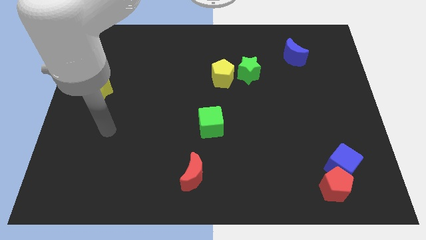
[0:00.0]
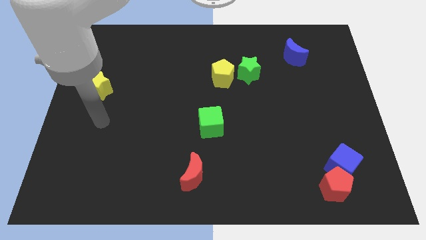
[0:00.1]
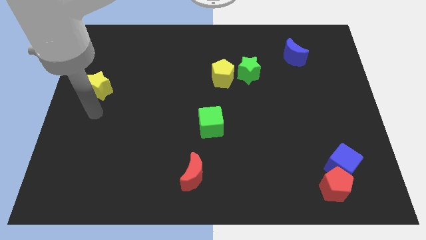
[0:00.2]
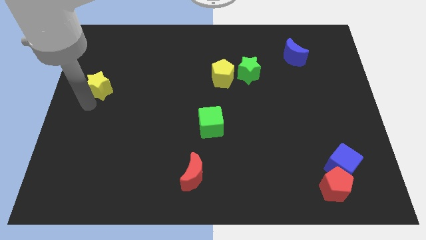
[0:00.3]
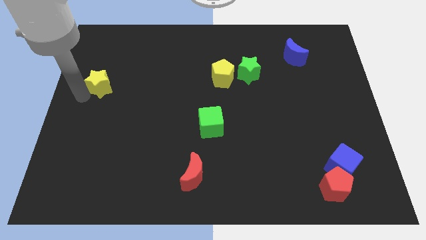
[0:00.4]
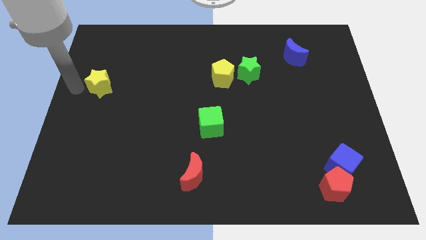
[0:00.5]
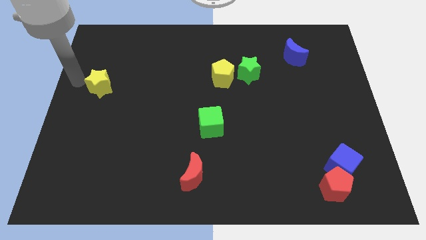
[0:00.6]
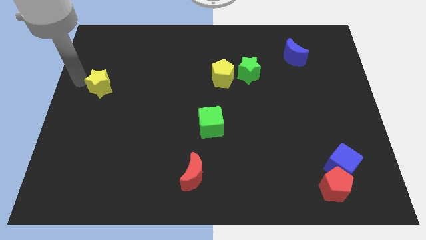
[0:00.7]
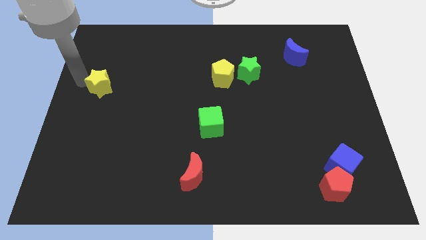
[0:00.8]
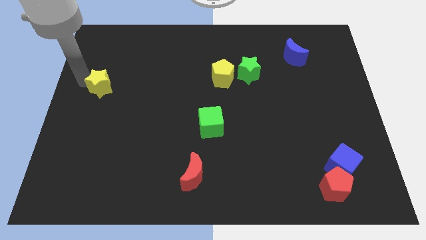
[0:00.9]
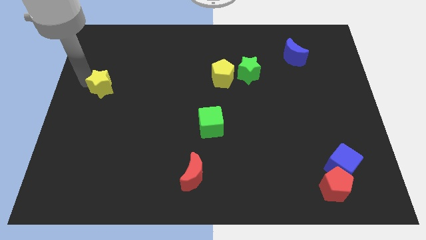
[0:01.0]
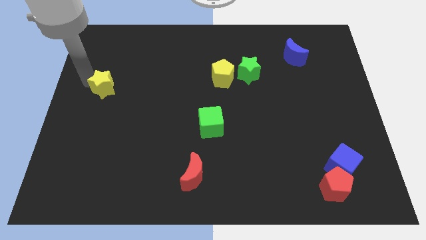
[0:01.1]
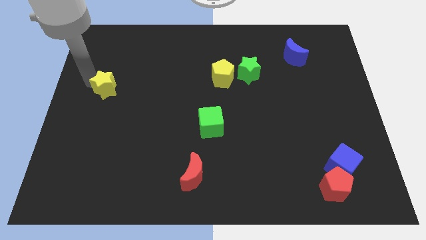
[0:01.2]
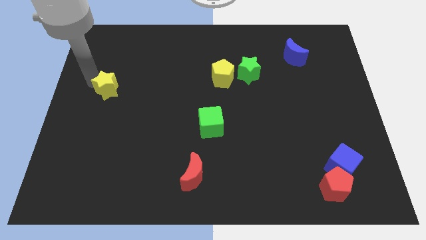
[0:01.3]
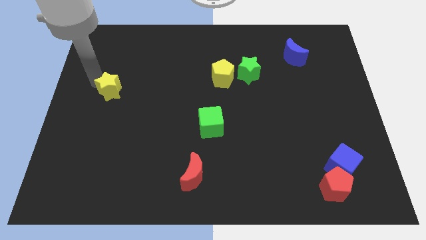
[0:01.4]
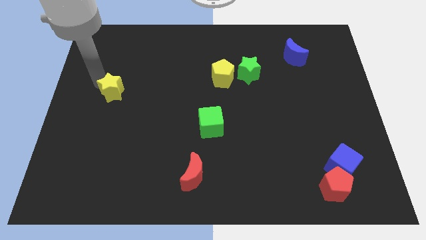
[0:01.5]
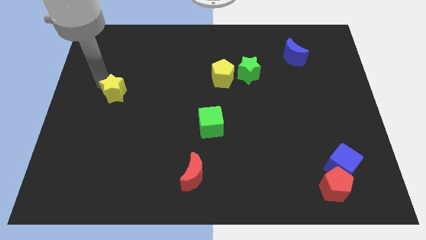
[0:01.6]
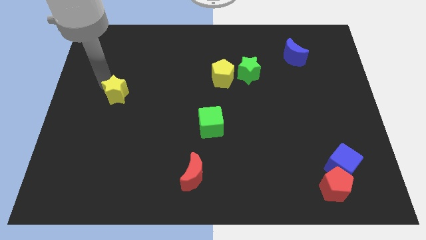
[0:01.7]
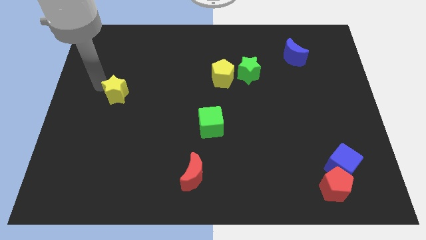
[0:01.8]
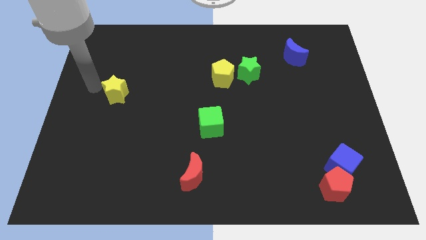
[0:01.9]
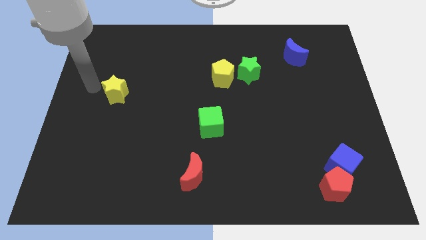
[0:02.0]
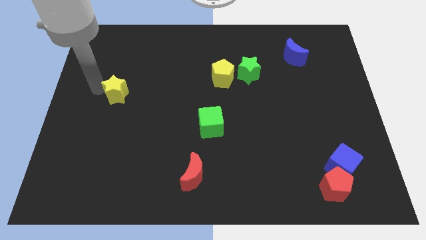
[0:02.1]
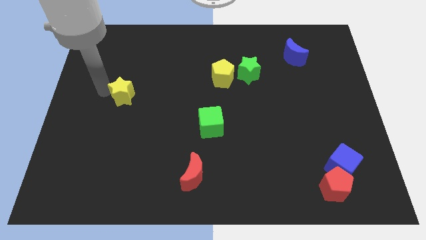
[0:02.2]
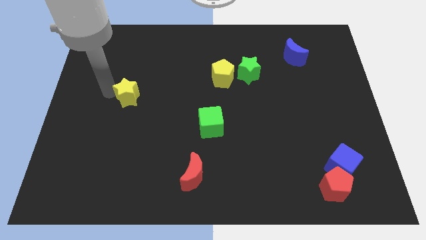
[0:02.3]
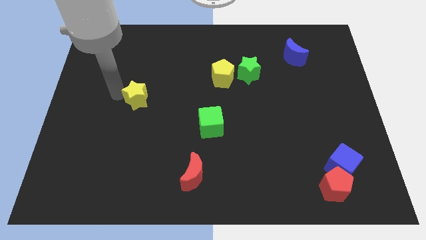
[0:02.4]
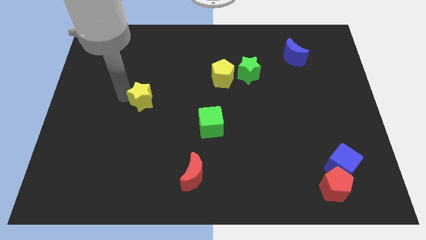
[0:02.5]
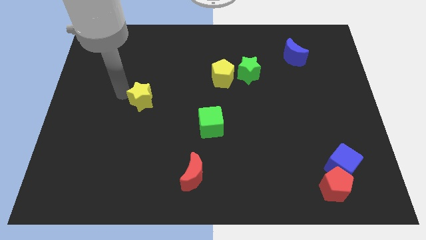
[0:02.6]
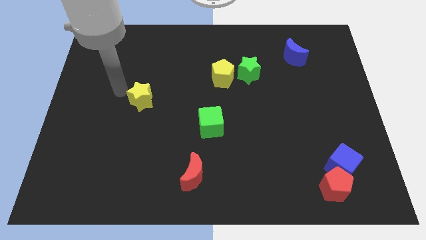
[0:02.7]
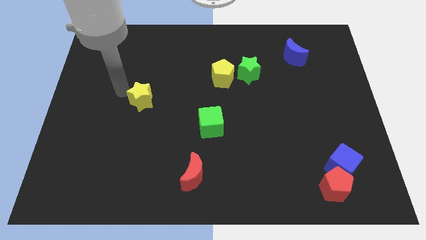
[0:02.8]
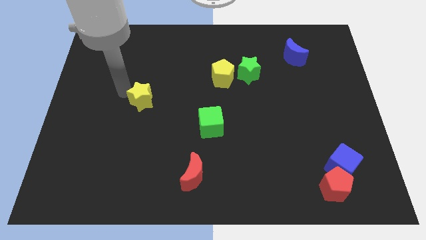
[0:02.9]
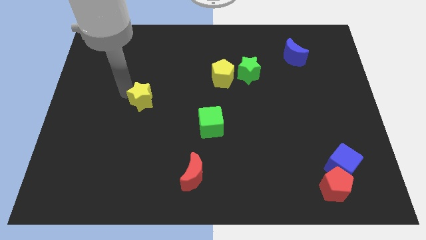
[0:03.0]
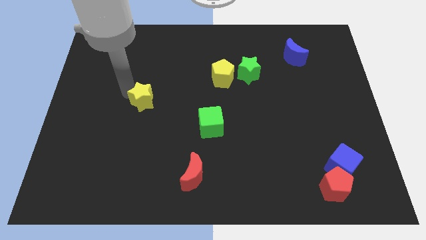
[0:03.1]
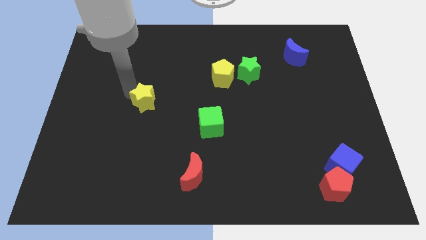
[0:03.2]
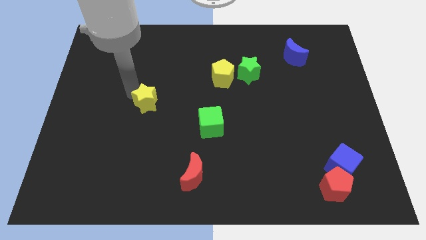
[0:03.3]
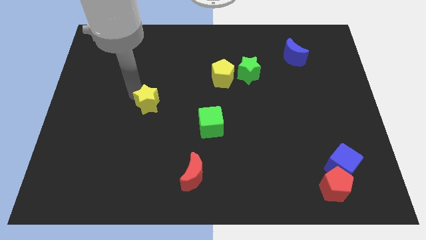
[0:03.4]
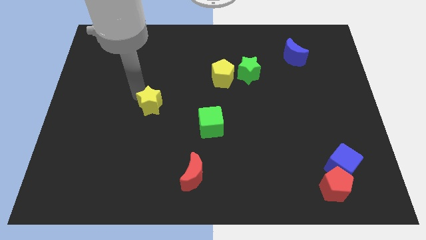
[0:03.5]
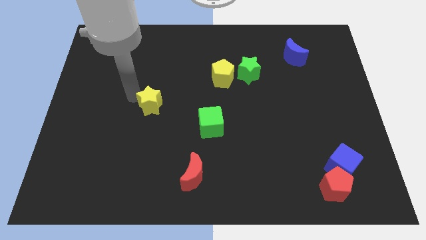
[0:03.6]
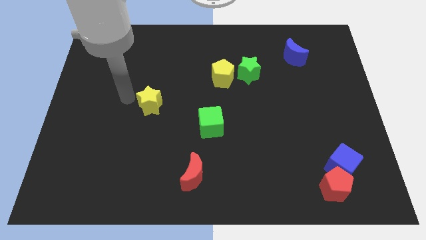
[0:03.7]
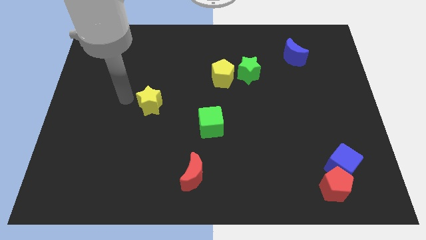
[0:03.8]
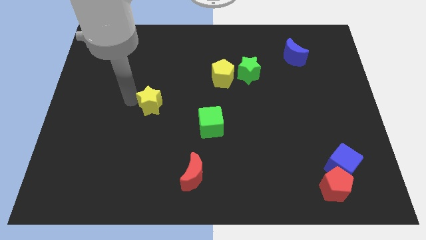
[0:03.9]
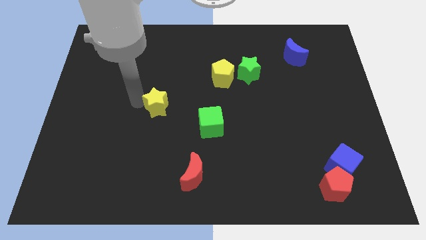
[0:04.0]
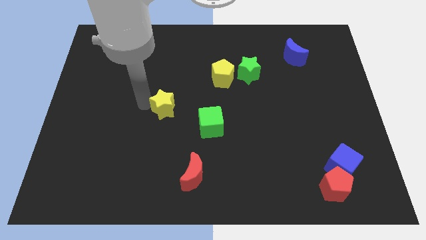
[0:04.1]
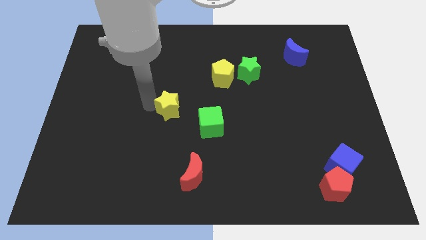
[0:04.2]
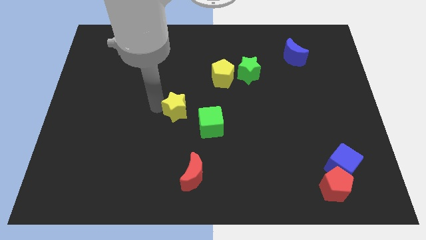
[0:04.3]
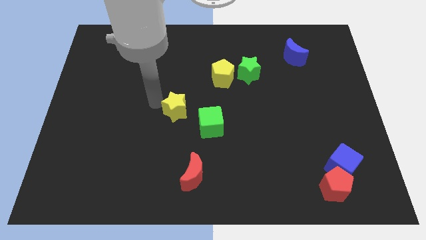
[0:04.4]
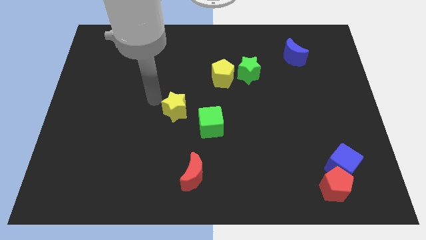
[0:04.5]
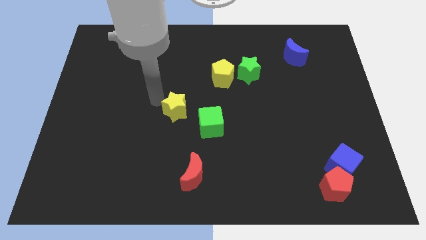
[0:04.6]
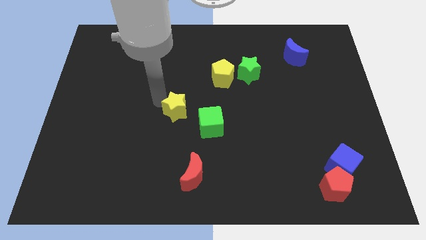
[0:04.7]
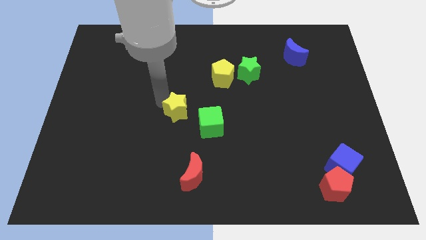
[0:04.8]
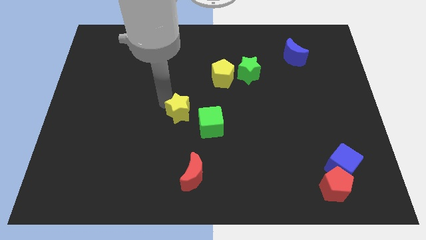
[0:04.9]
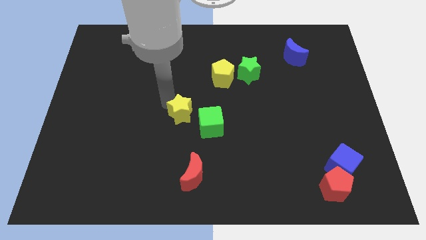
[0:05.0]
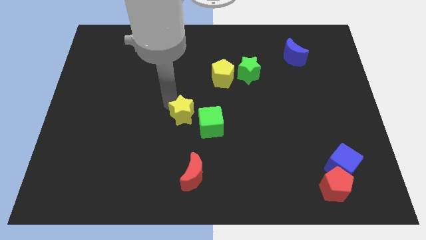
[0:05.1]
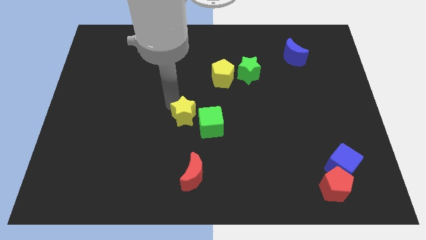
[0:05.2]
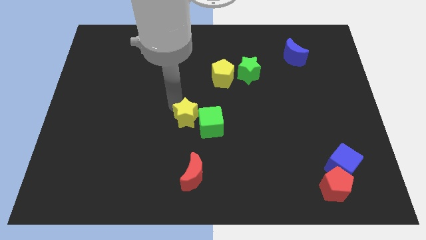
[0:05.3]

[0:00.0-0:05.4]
put the yellow star towards the green cube

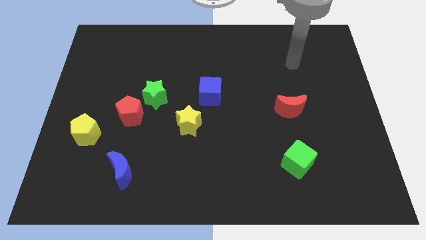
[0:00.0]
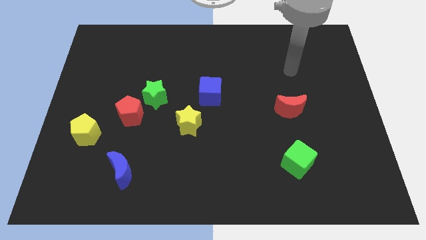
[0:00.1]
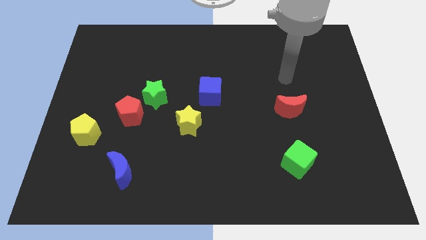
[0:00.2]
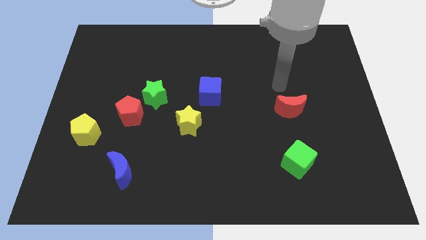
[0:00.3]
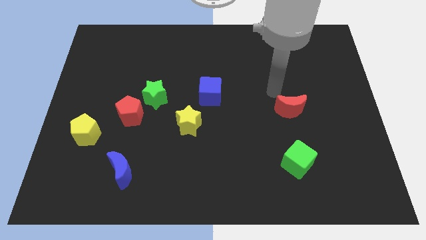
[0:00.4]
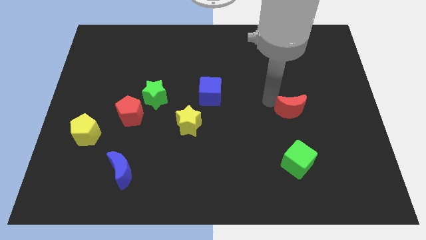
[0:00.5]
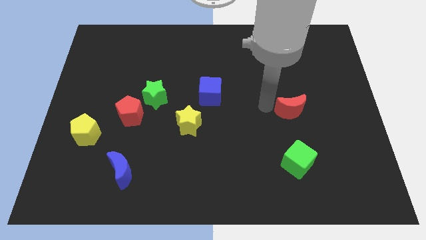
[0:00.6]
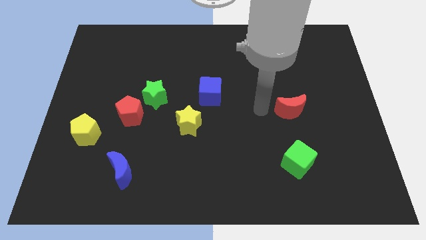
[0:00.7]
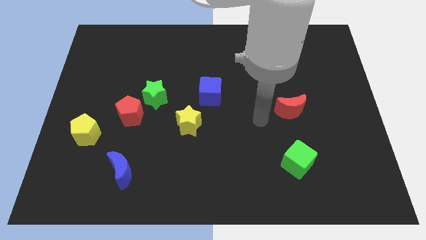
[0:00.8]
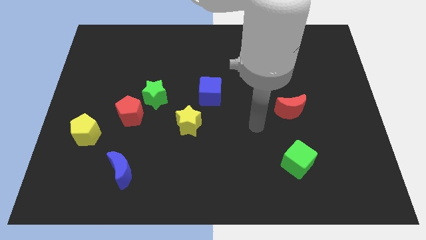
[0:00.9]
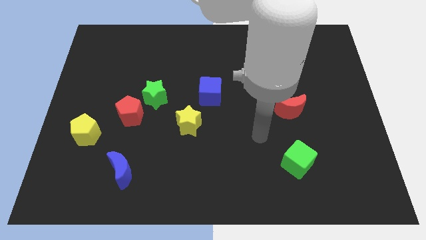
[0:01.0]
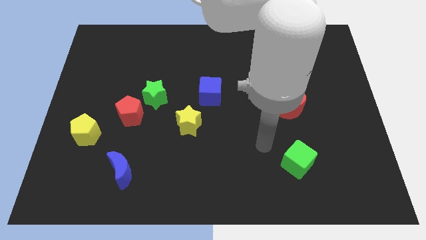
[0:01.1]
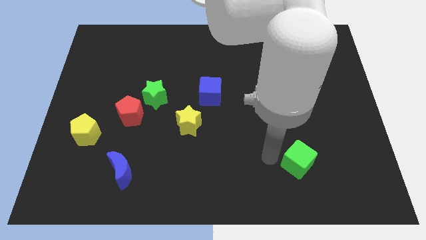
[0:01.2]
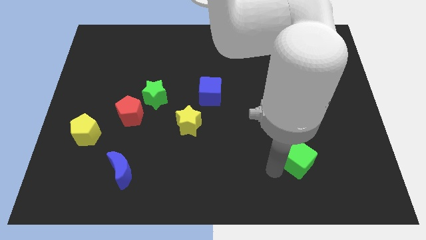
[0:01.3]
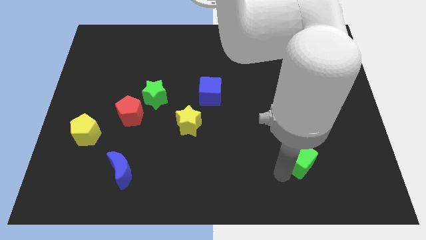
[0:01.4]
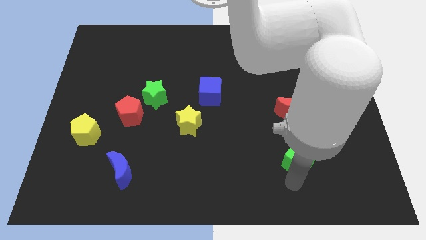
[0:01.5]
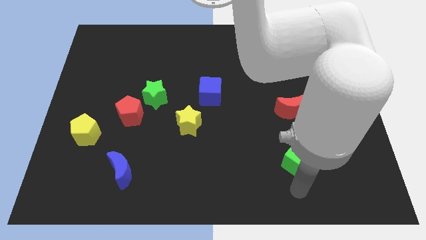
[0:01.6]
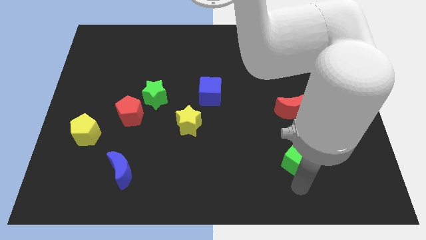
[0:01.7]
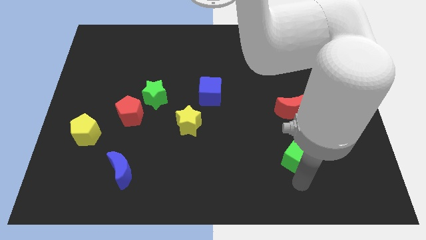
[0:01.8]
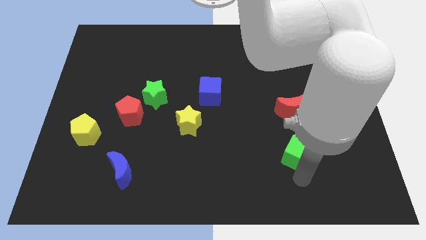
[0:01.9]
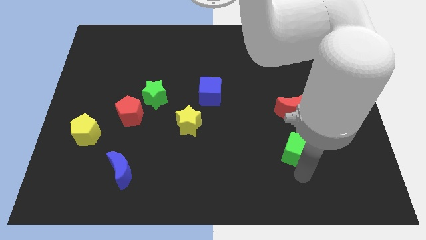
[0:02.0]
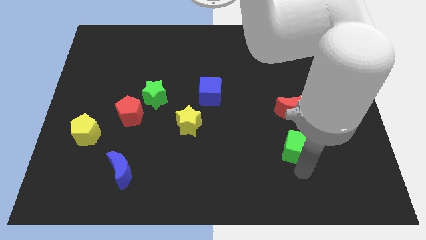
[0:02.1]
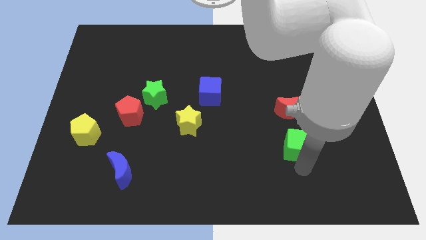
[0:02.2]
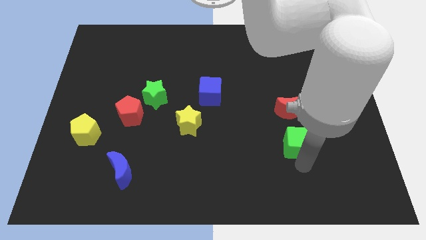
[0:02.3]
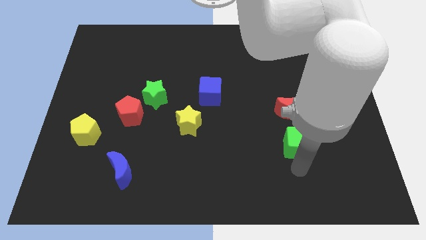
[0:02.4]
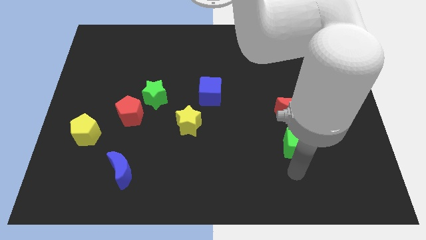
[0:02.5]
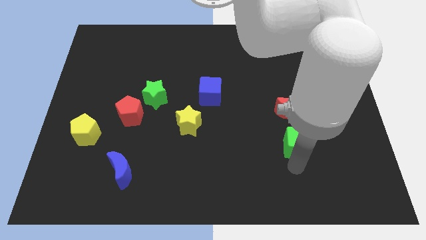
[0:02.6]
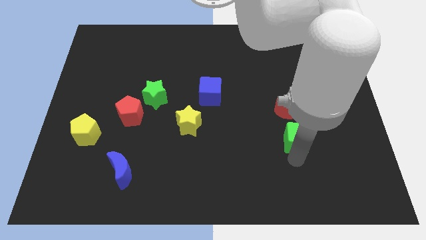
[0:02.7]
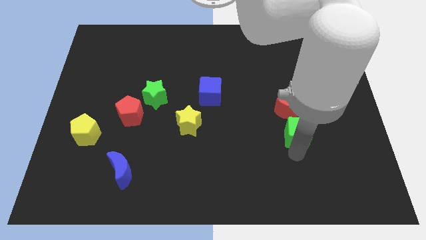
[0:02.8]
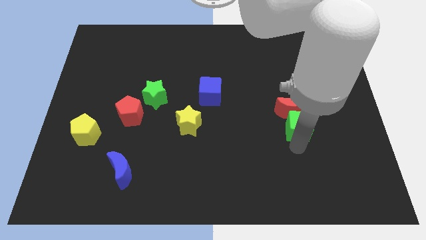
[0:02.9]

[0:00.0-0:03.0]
put the green cube next to the red moon
